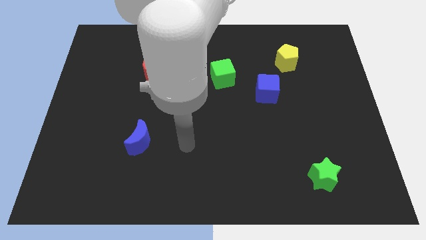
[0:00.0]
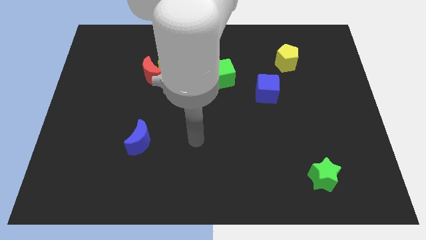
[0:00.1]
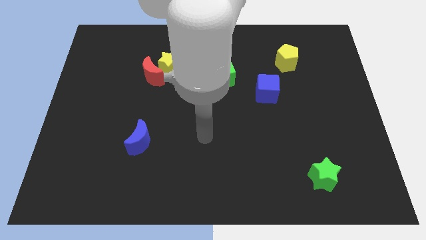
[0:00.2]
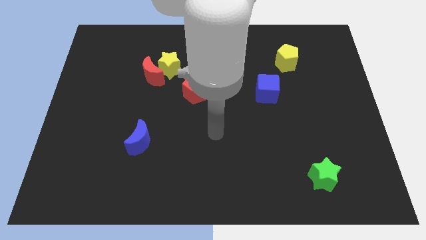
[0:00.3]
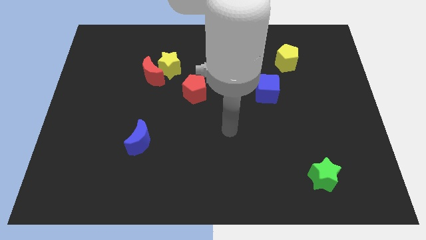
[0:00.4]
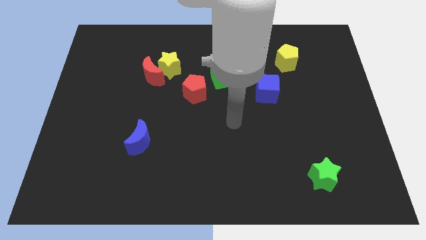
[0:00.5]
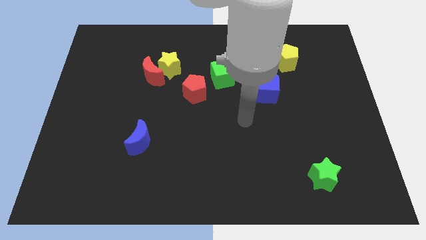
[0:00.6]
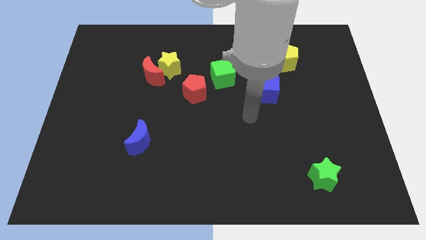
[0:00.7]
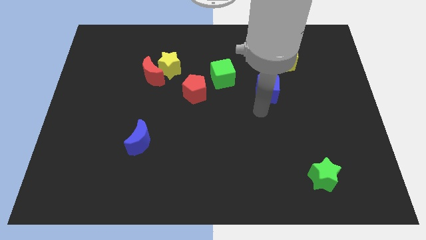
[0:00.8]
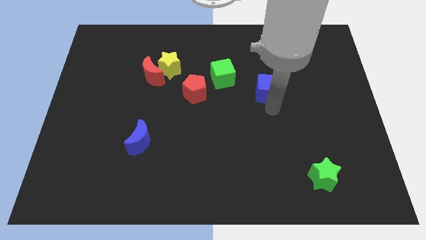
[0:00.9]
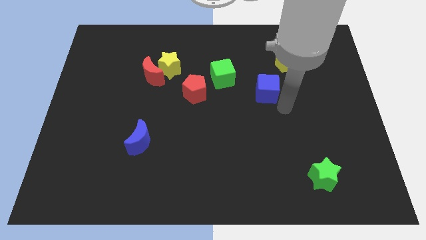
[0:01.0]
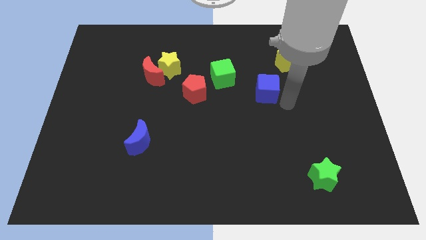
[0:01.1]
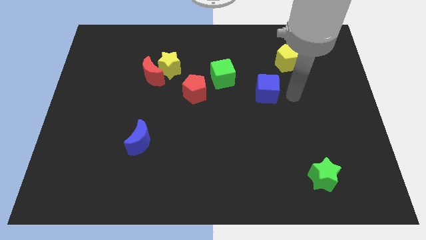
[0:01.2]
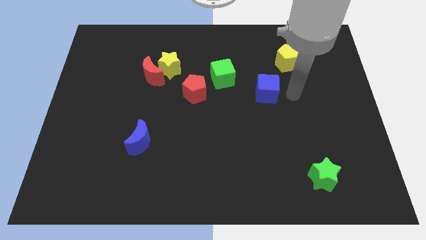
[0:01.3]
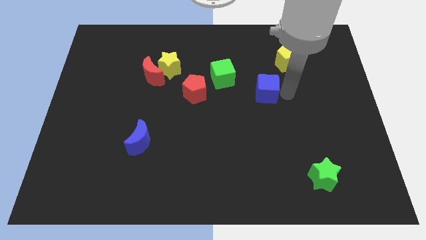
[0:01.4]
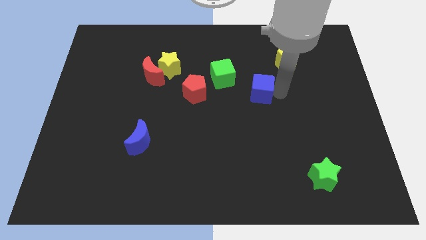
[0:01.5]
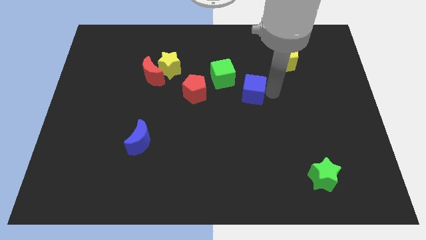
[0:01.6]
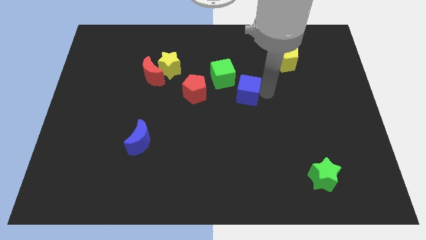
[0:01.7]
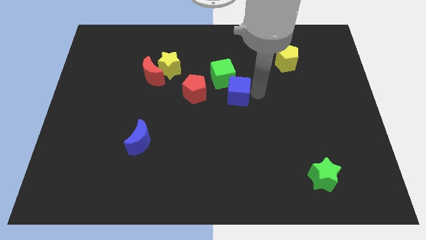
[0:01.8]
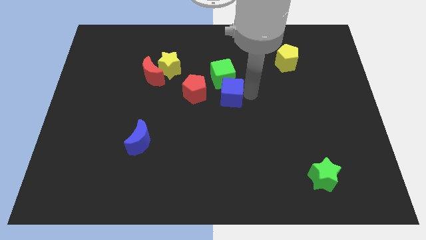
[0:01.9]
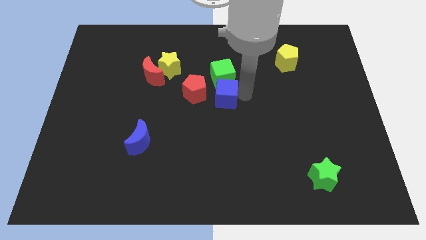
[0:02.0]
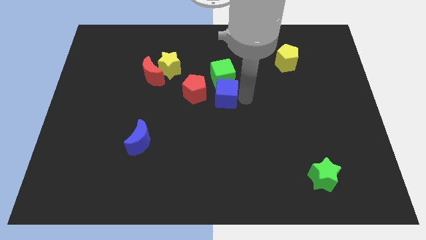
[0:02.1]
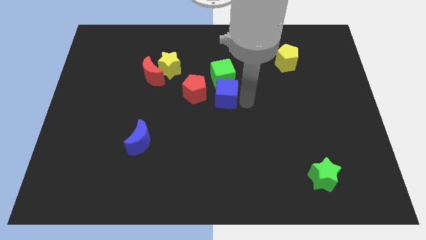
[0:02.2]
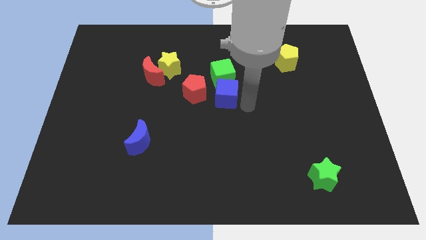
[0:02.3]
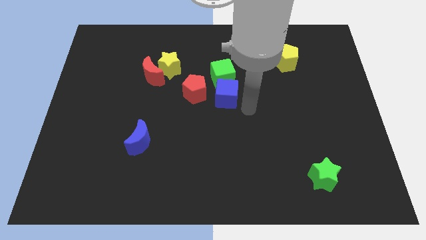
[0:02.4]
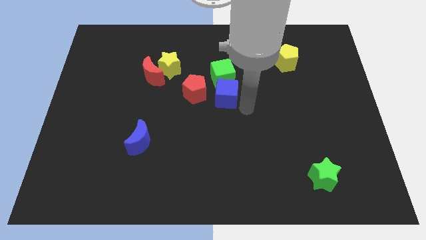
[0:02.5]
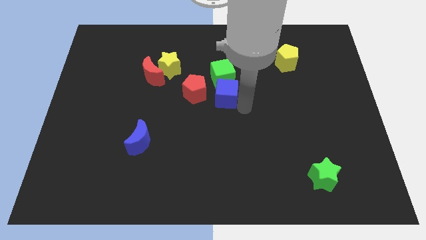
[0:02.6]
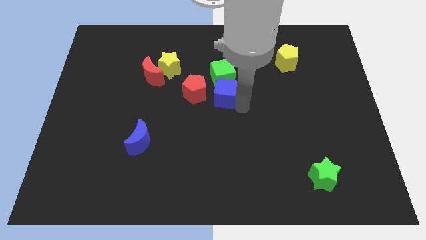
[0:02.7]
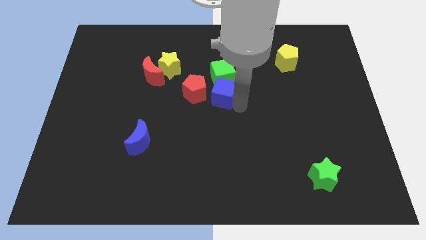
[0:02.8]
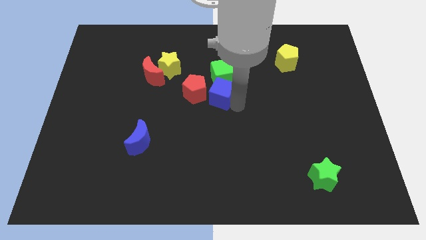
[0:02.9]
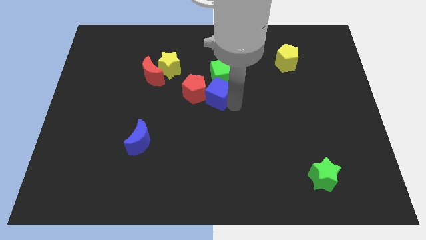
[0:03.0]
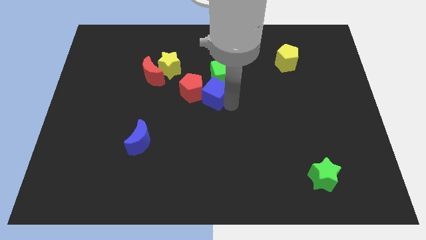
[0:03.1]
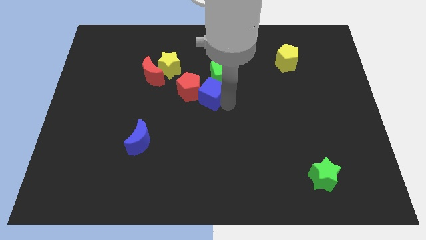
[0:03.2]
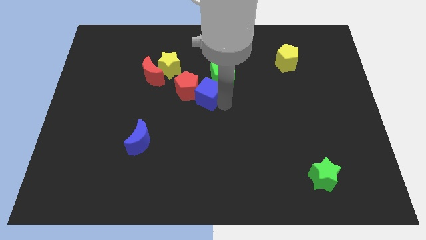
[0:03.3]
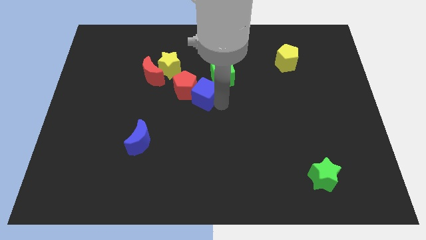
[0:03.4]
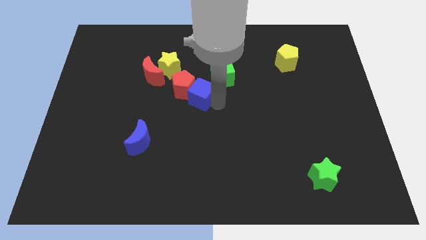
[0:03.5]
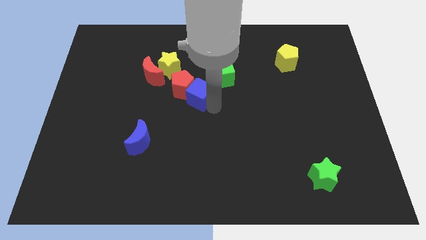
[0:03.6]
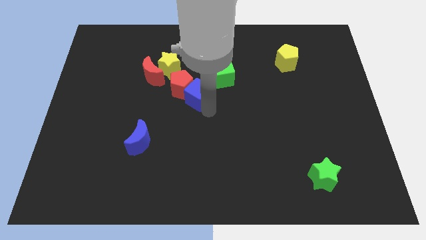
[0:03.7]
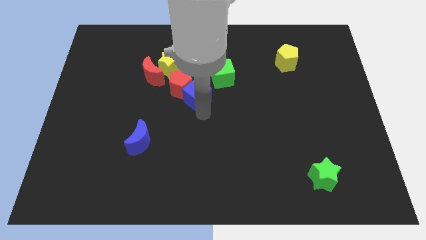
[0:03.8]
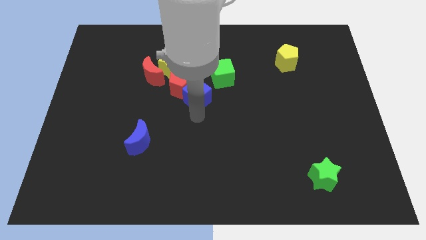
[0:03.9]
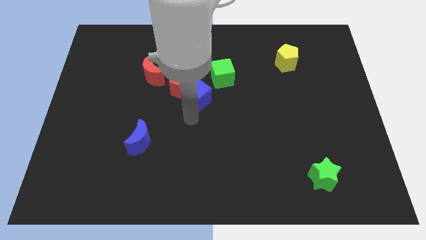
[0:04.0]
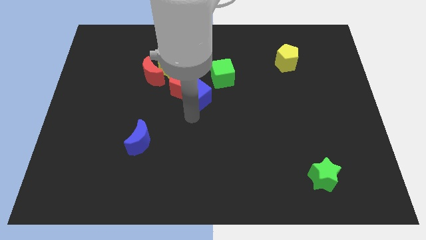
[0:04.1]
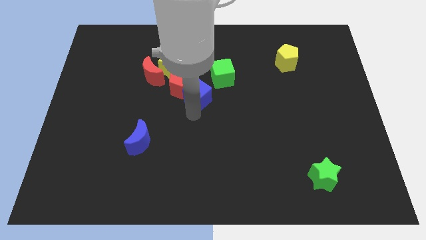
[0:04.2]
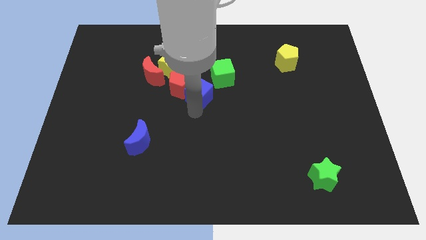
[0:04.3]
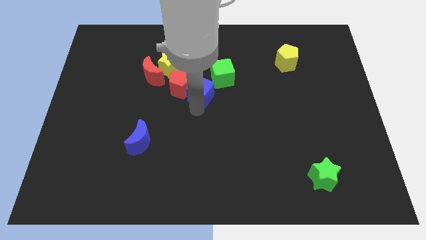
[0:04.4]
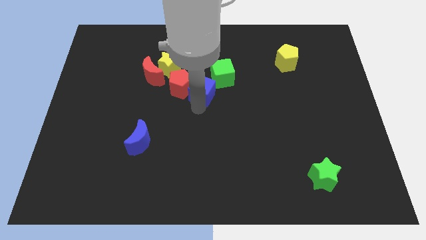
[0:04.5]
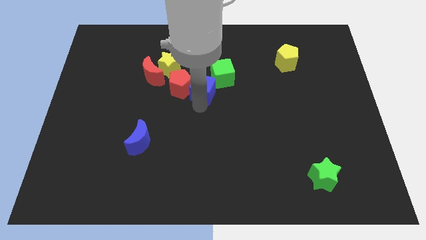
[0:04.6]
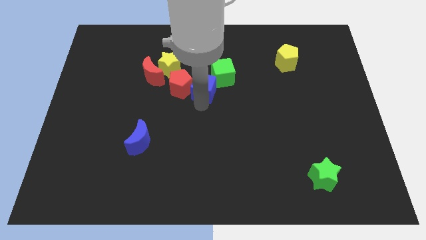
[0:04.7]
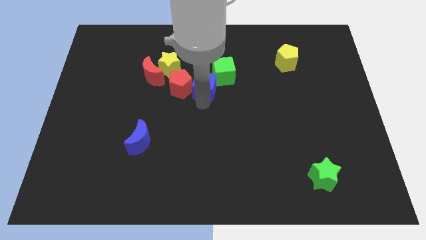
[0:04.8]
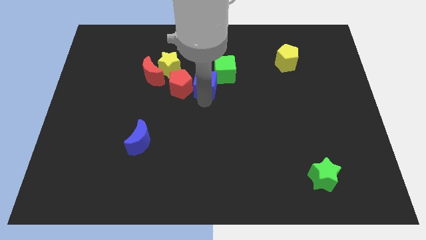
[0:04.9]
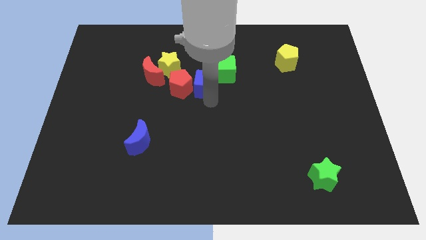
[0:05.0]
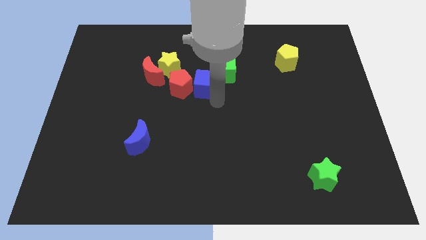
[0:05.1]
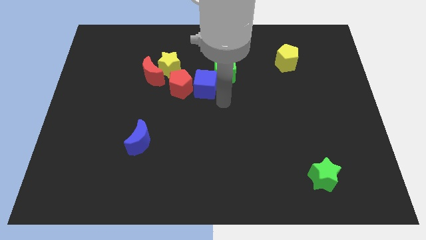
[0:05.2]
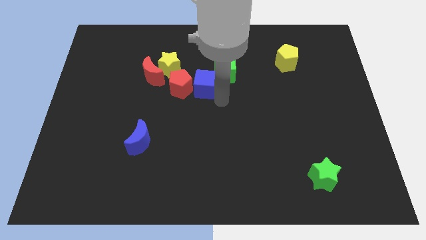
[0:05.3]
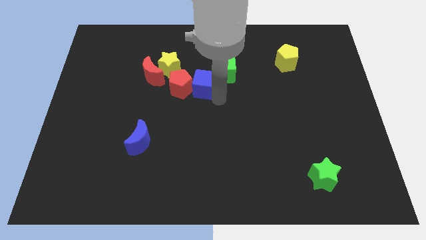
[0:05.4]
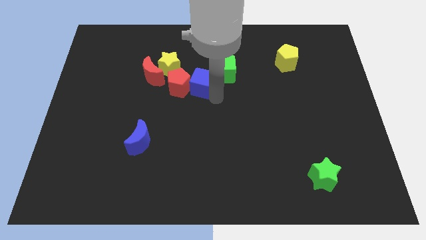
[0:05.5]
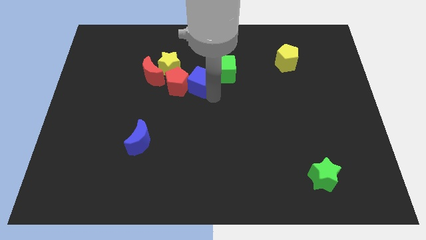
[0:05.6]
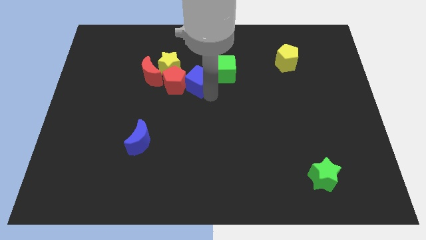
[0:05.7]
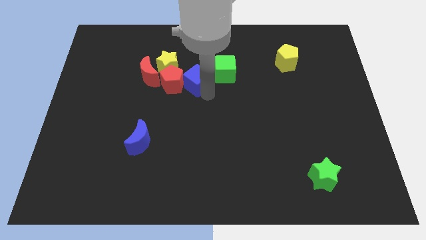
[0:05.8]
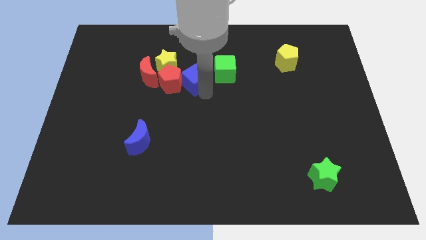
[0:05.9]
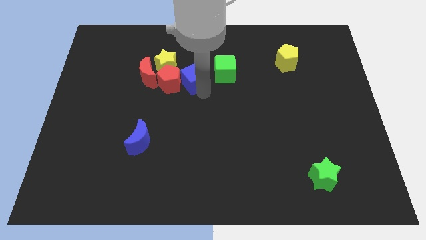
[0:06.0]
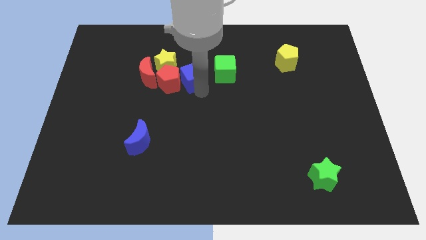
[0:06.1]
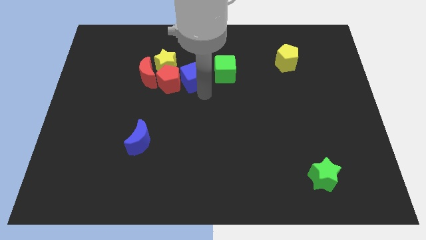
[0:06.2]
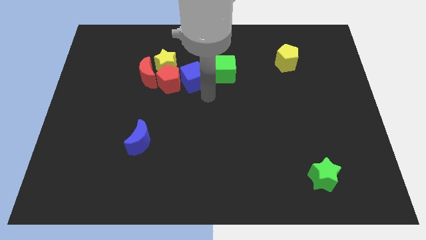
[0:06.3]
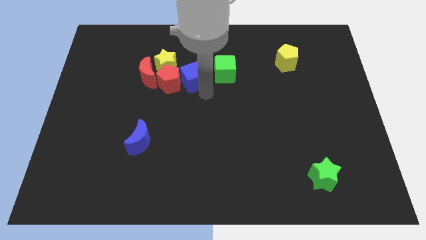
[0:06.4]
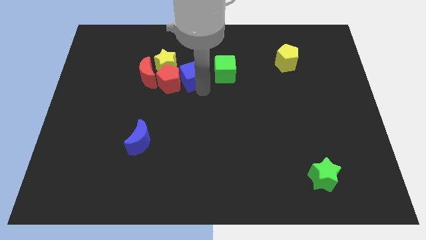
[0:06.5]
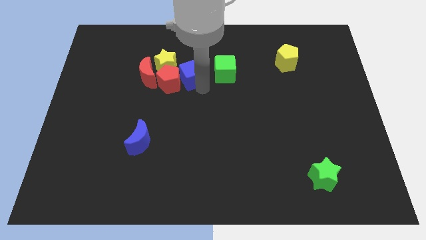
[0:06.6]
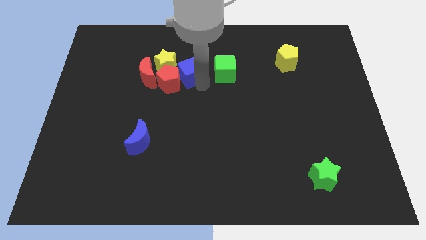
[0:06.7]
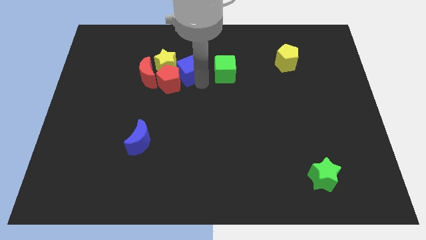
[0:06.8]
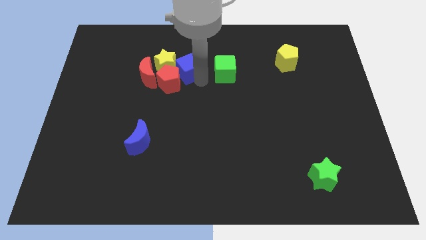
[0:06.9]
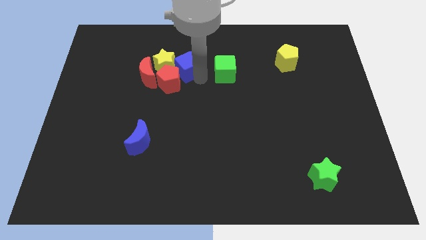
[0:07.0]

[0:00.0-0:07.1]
move the blue cube towards the yellow star
